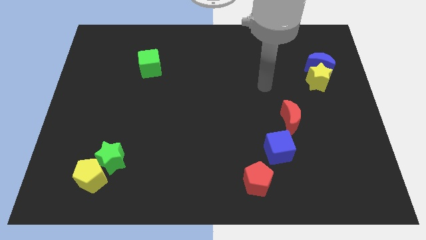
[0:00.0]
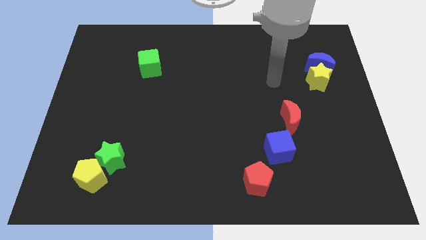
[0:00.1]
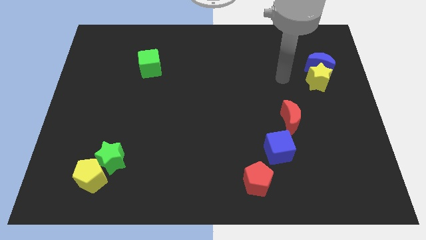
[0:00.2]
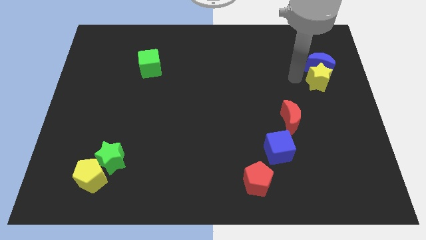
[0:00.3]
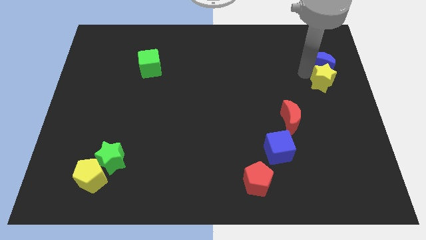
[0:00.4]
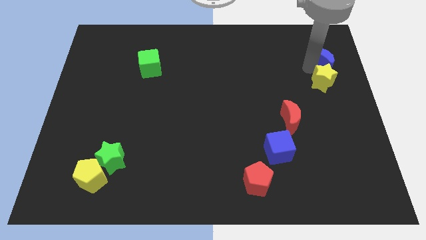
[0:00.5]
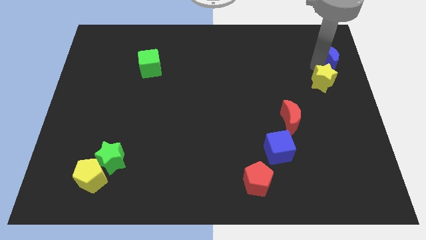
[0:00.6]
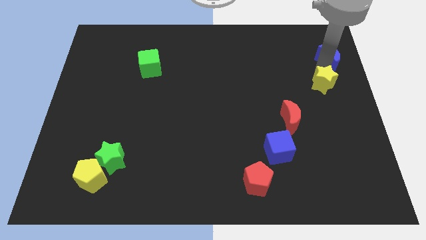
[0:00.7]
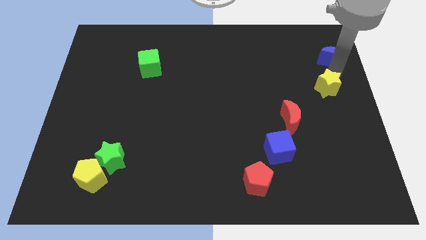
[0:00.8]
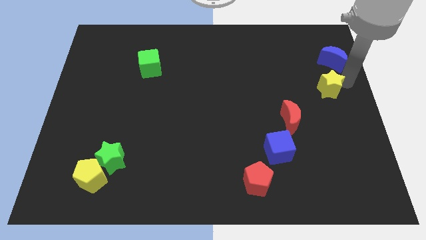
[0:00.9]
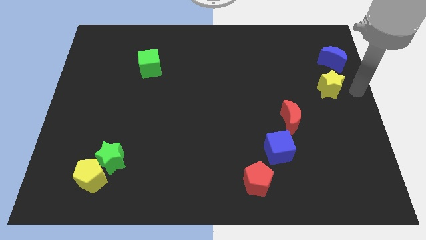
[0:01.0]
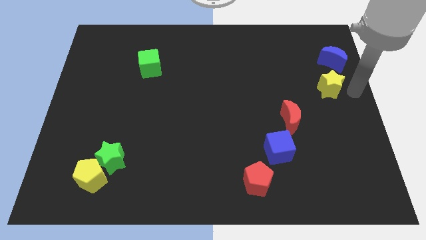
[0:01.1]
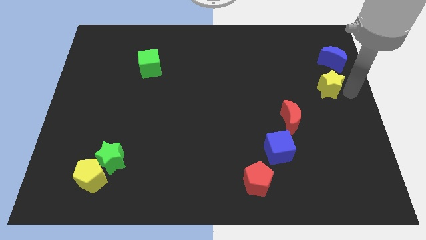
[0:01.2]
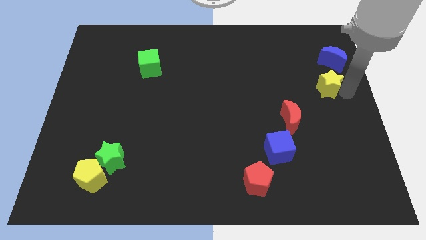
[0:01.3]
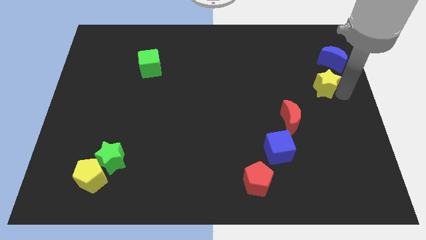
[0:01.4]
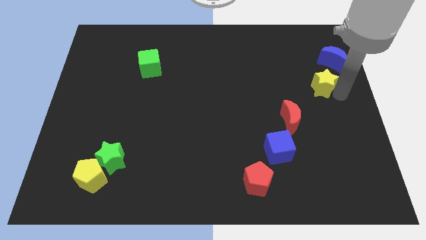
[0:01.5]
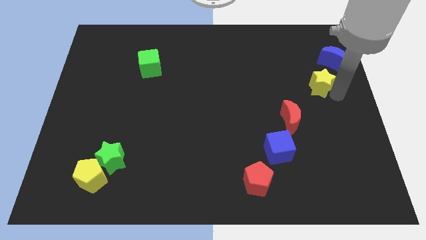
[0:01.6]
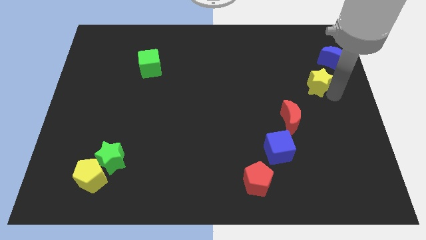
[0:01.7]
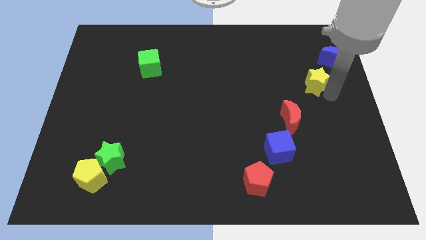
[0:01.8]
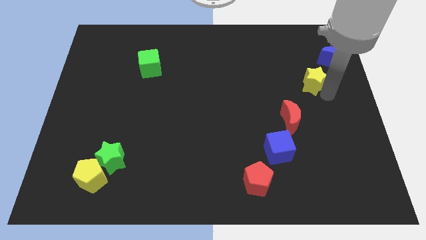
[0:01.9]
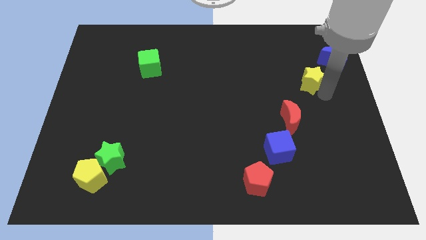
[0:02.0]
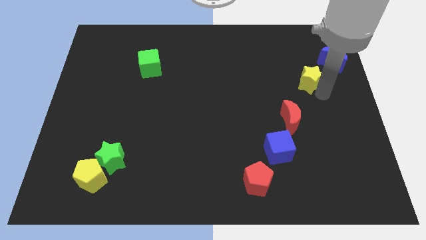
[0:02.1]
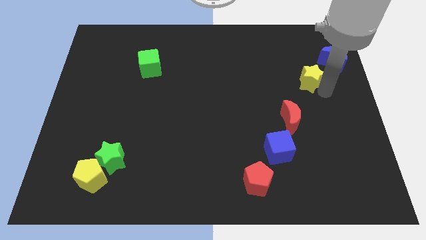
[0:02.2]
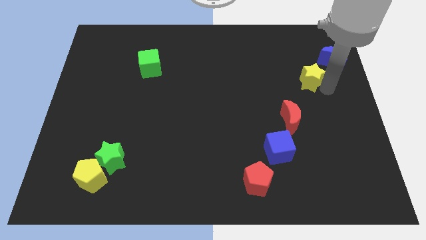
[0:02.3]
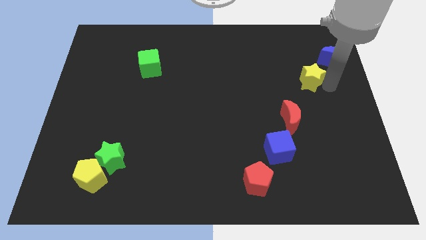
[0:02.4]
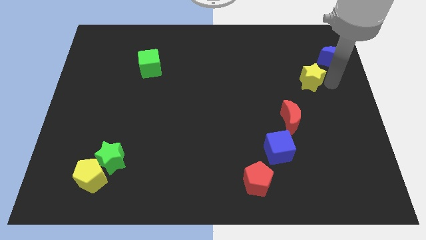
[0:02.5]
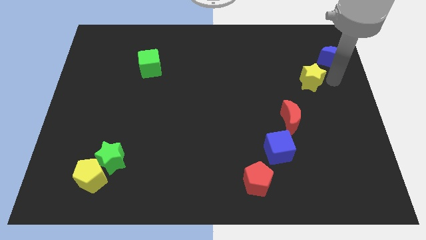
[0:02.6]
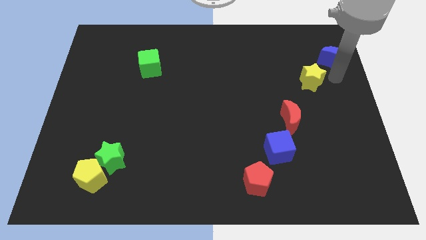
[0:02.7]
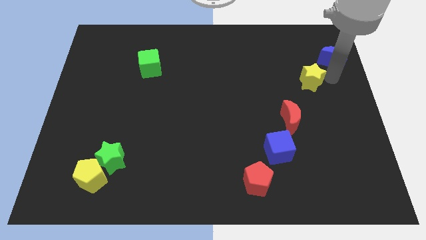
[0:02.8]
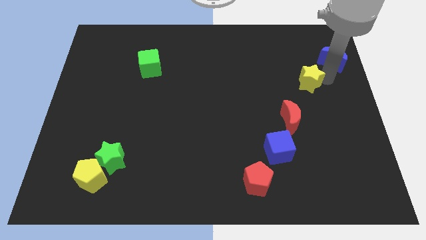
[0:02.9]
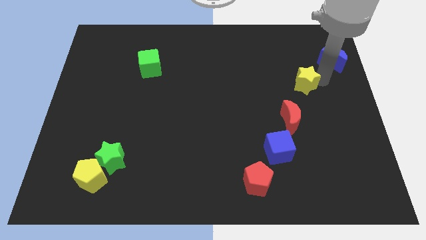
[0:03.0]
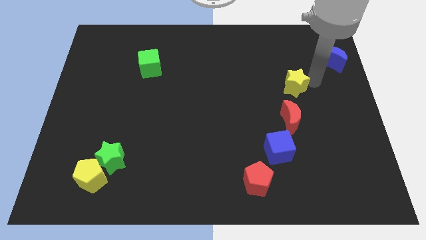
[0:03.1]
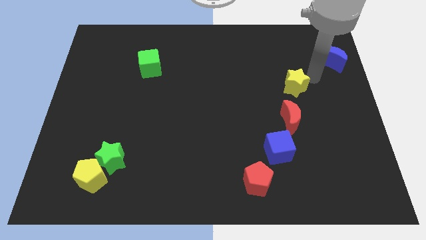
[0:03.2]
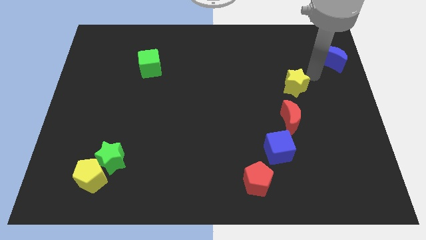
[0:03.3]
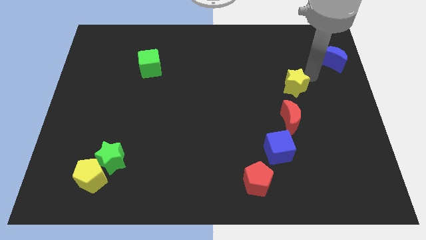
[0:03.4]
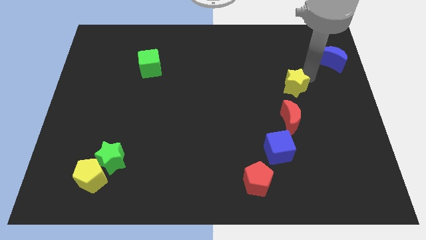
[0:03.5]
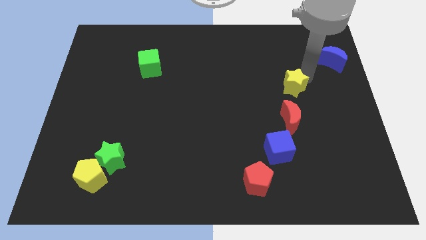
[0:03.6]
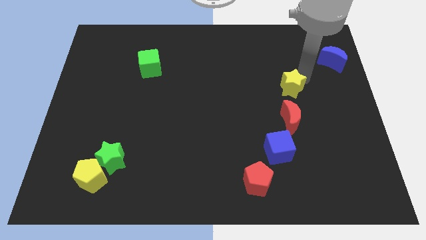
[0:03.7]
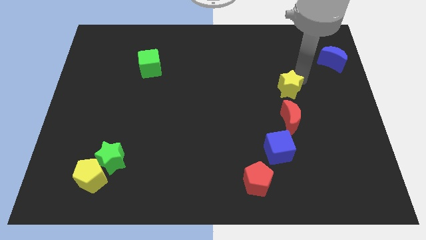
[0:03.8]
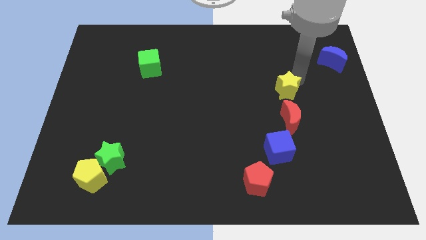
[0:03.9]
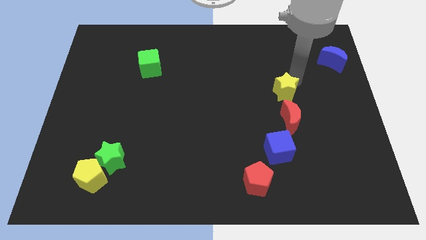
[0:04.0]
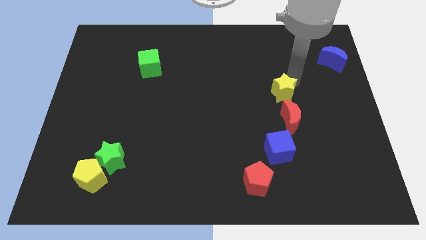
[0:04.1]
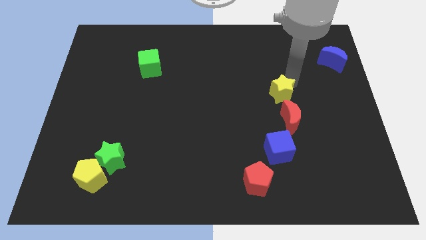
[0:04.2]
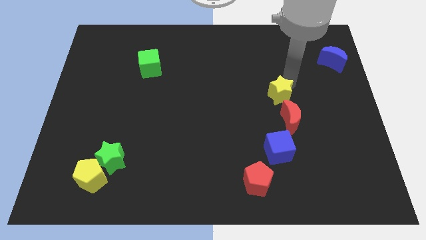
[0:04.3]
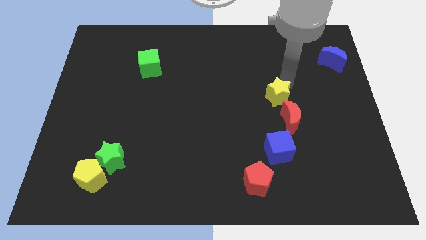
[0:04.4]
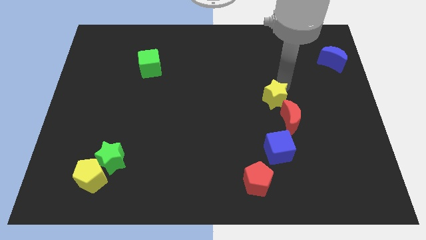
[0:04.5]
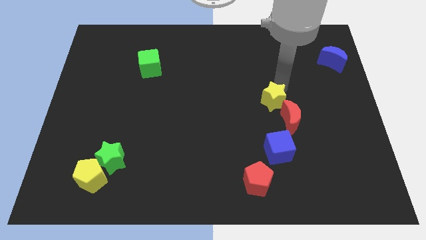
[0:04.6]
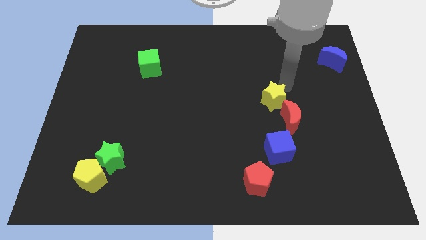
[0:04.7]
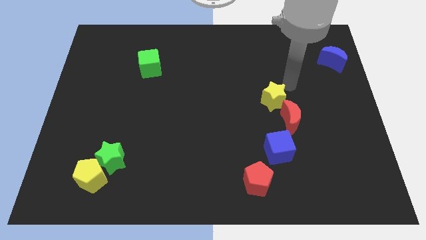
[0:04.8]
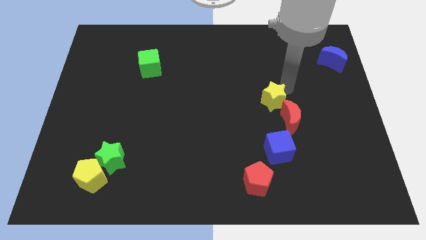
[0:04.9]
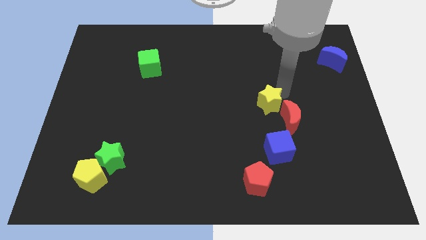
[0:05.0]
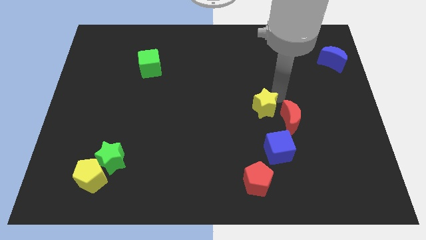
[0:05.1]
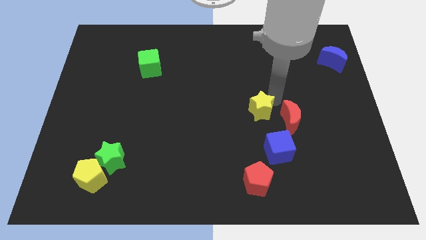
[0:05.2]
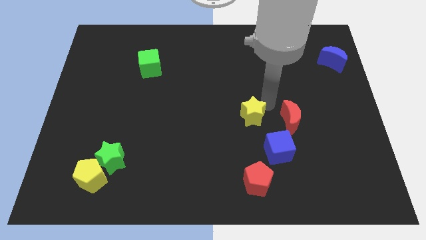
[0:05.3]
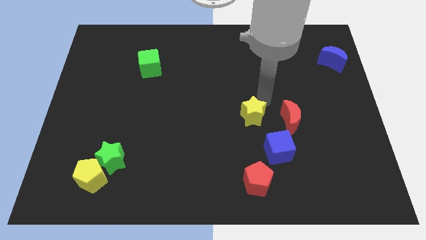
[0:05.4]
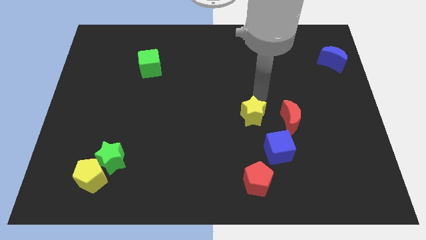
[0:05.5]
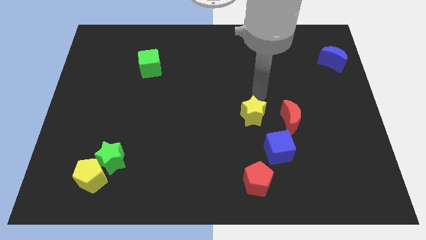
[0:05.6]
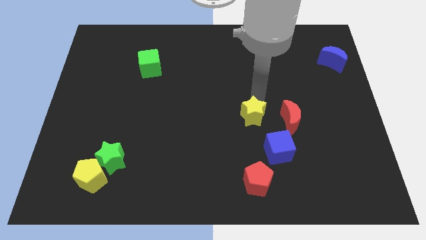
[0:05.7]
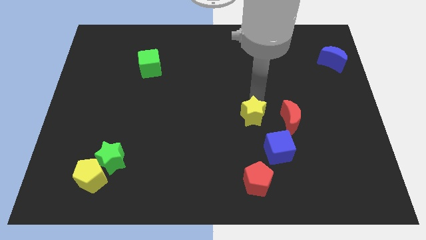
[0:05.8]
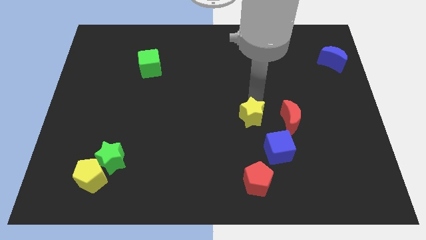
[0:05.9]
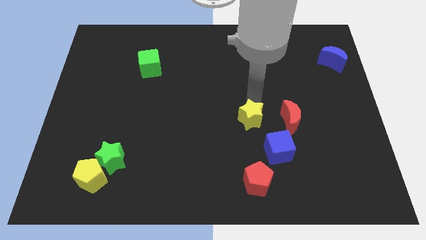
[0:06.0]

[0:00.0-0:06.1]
push the yellow star downwards and to the left diagonally

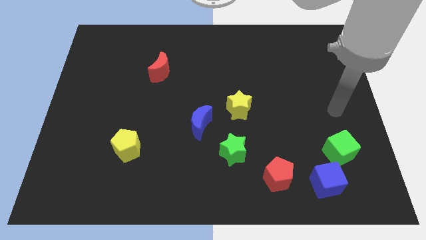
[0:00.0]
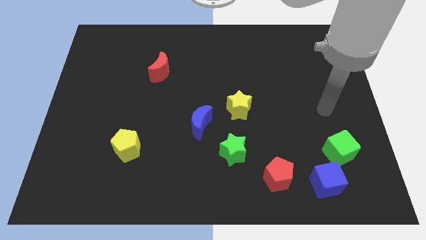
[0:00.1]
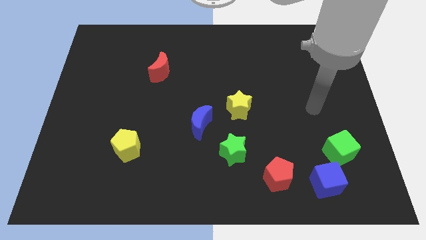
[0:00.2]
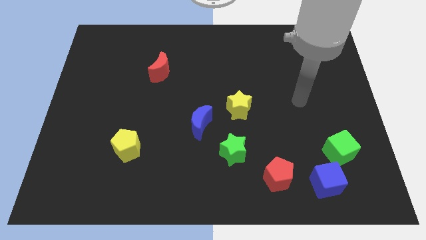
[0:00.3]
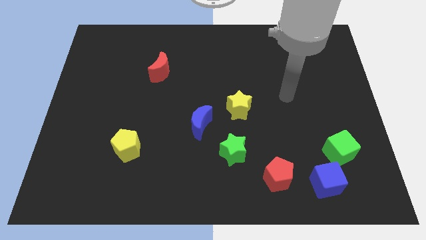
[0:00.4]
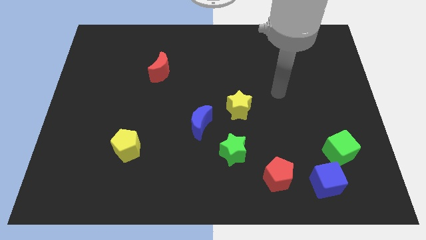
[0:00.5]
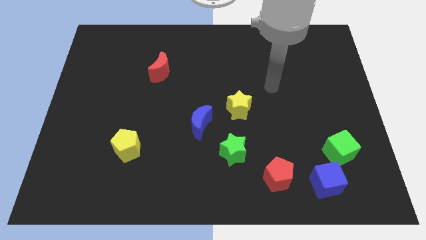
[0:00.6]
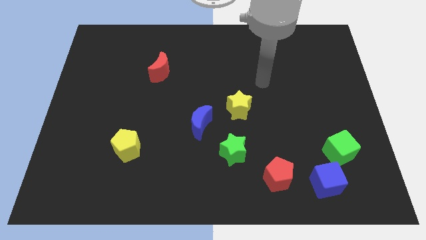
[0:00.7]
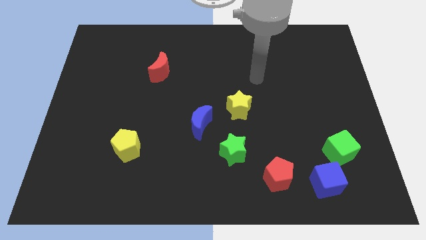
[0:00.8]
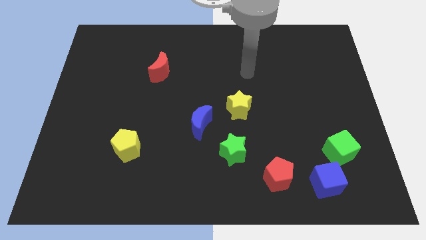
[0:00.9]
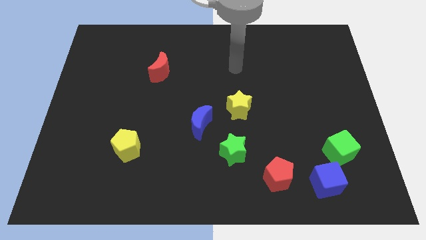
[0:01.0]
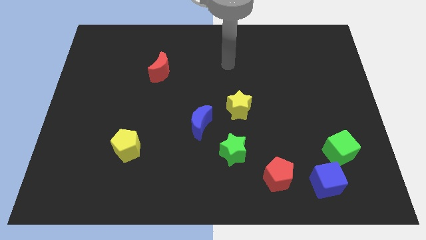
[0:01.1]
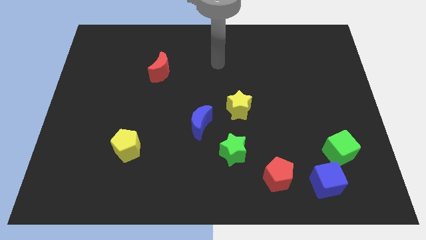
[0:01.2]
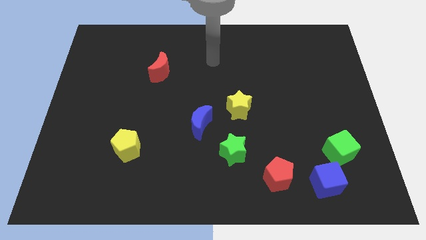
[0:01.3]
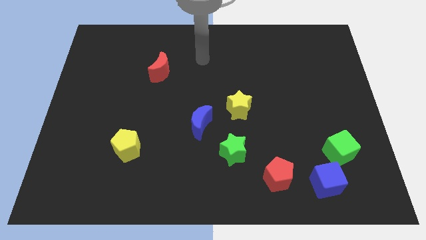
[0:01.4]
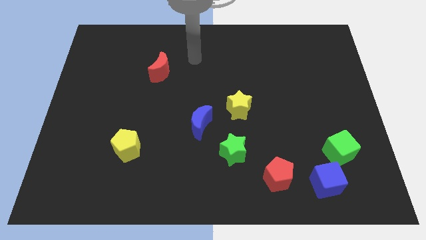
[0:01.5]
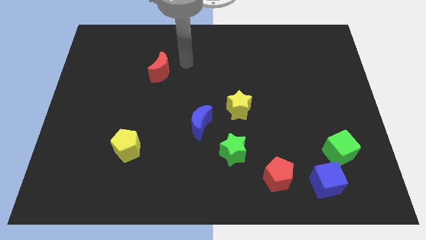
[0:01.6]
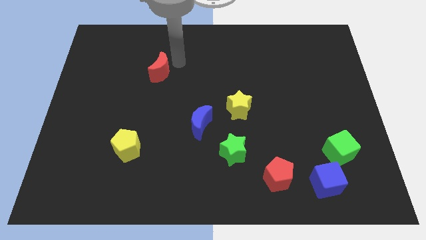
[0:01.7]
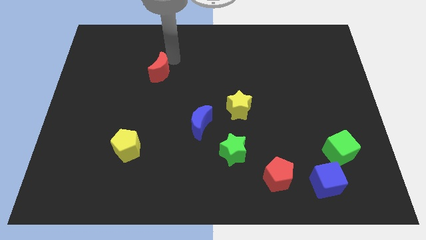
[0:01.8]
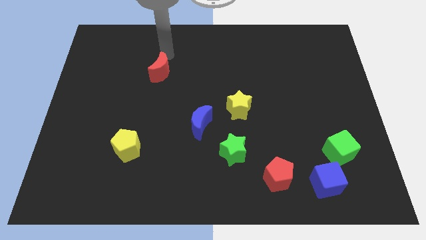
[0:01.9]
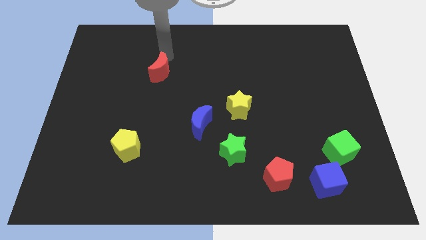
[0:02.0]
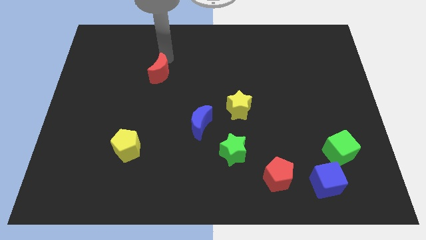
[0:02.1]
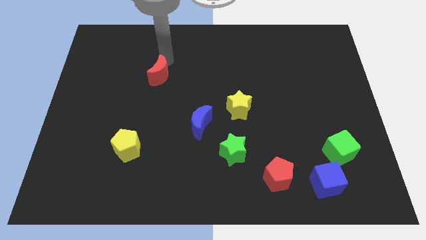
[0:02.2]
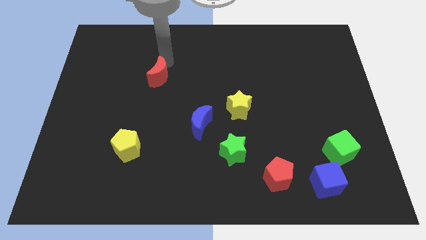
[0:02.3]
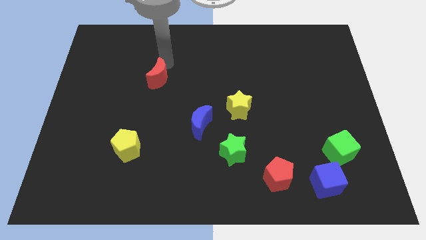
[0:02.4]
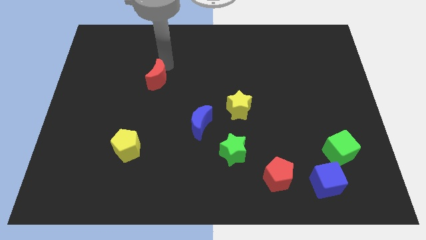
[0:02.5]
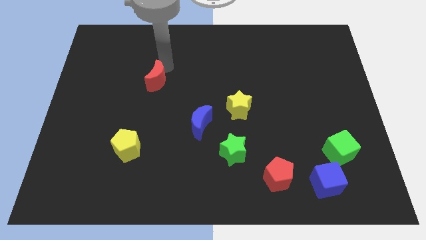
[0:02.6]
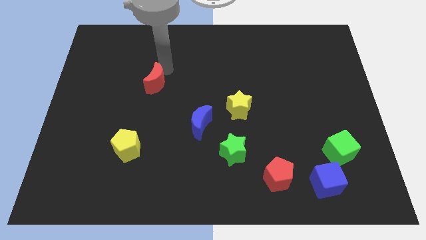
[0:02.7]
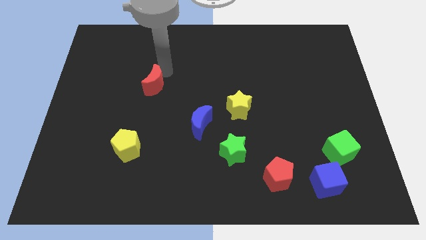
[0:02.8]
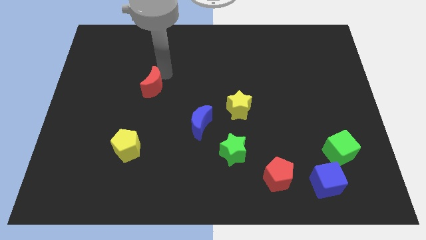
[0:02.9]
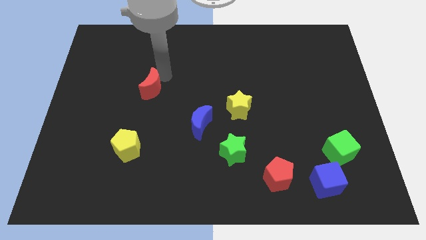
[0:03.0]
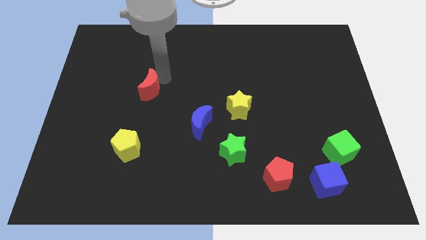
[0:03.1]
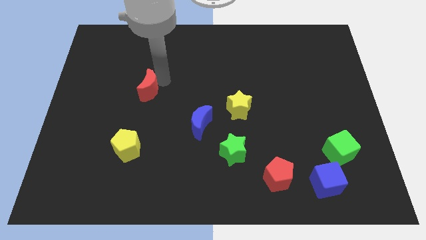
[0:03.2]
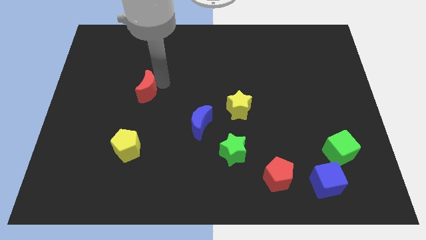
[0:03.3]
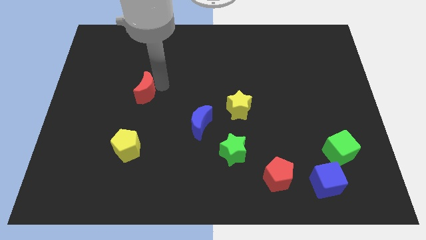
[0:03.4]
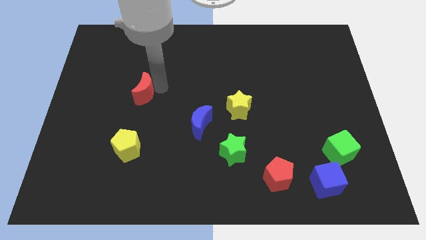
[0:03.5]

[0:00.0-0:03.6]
move the red moon slightly down
